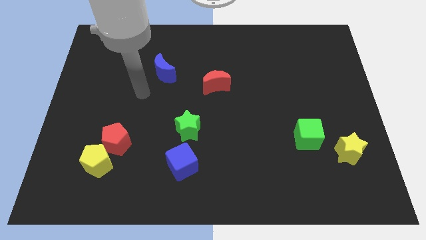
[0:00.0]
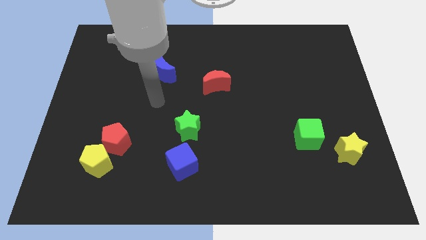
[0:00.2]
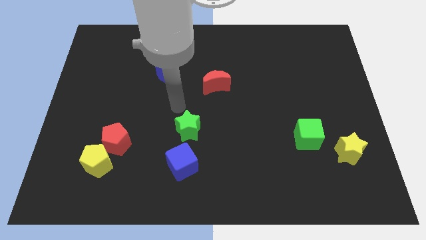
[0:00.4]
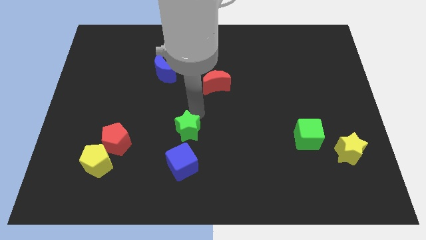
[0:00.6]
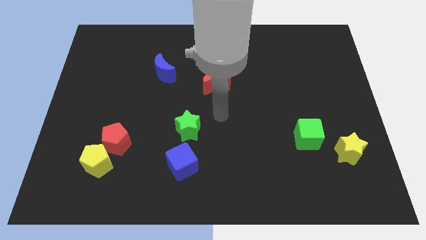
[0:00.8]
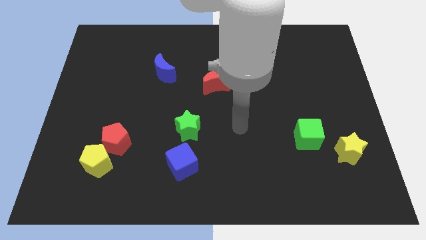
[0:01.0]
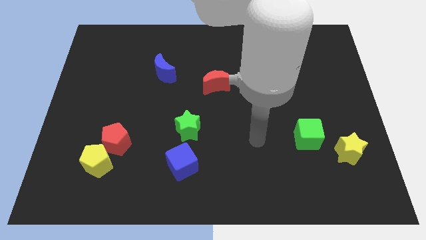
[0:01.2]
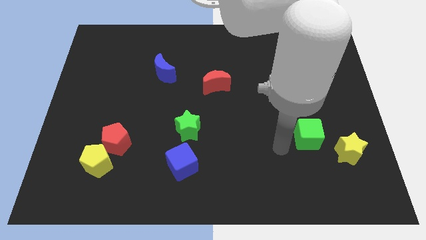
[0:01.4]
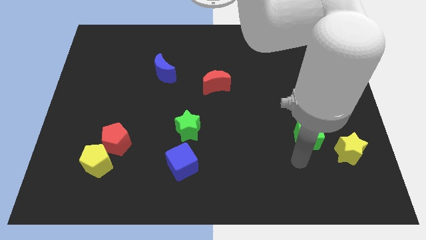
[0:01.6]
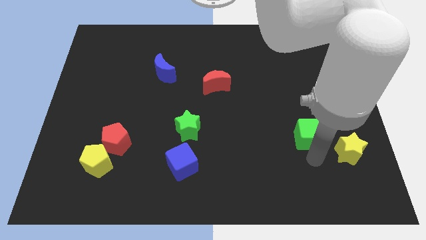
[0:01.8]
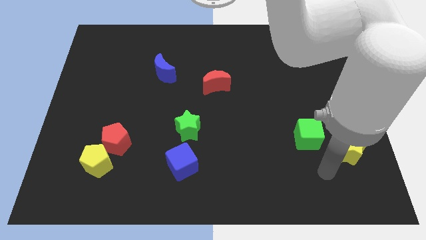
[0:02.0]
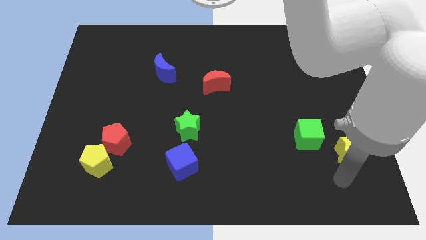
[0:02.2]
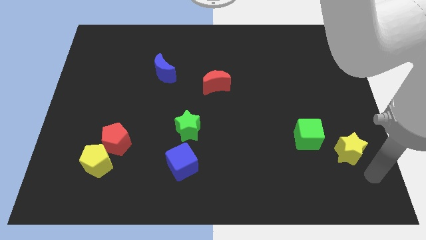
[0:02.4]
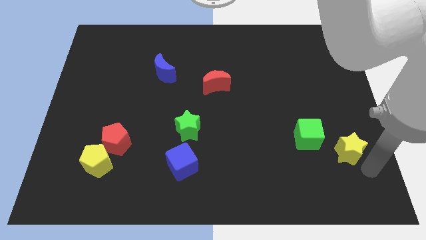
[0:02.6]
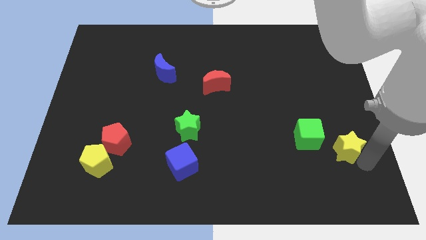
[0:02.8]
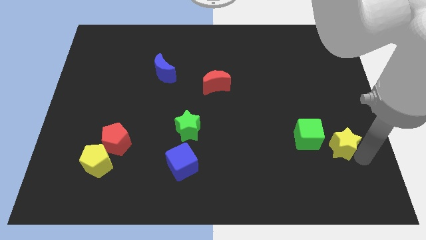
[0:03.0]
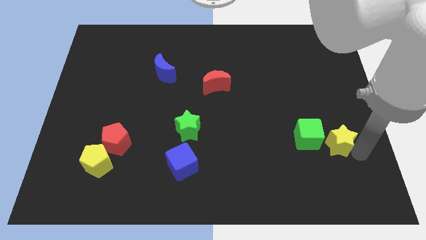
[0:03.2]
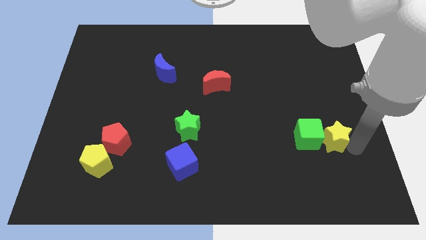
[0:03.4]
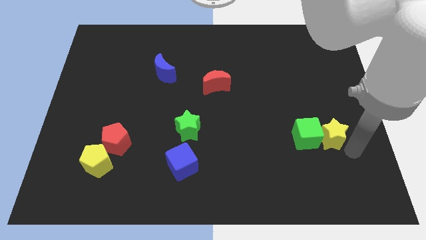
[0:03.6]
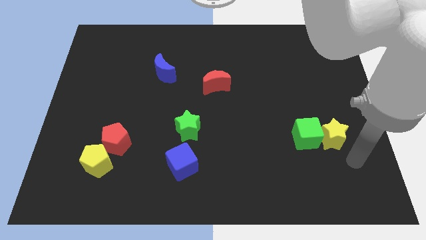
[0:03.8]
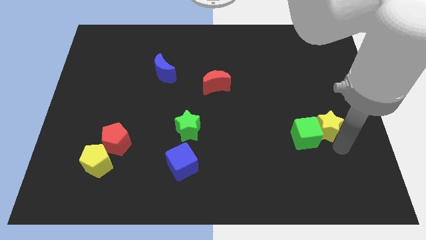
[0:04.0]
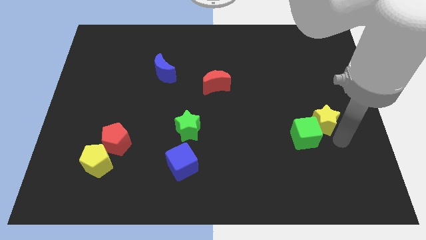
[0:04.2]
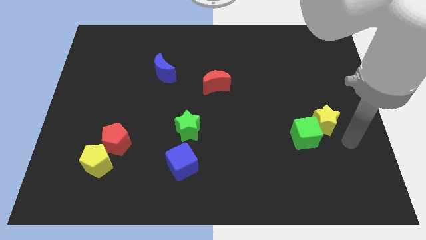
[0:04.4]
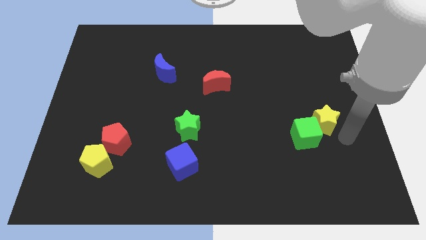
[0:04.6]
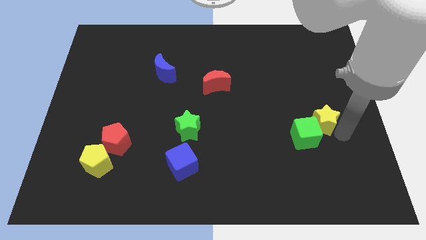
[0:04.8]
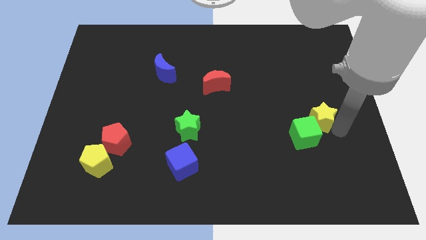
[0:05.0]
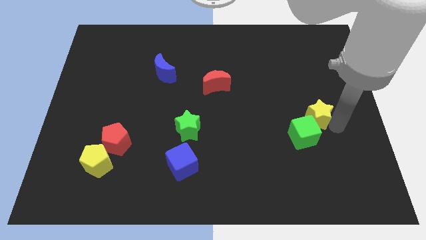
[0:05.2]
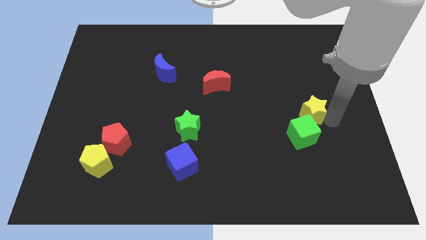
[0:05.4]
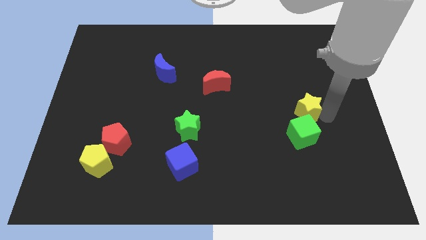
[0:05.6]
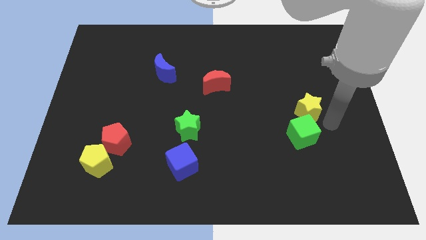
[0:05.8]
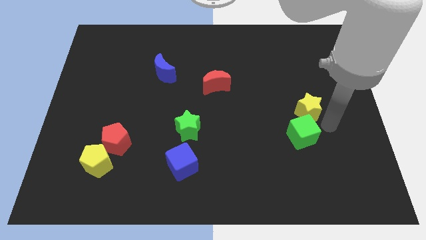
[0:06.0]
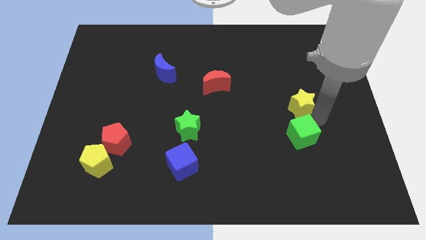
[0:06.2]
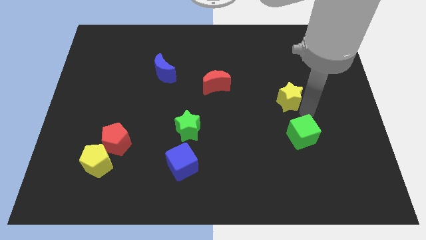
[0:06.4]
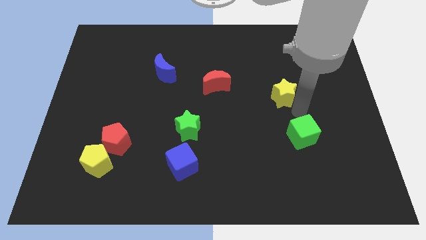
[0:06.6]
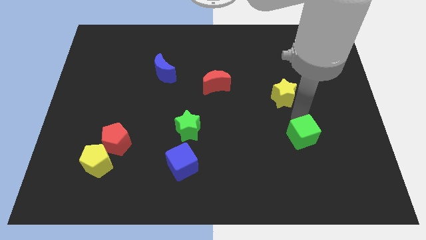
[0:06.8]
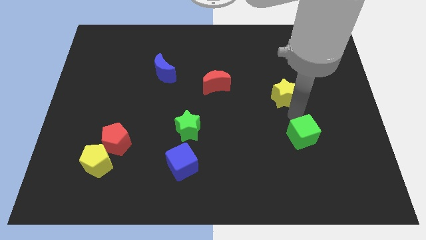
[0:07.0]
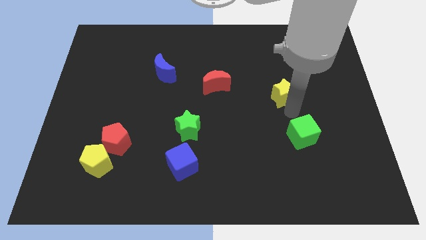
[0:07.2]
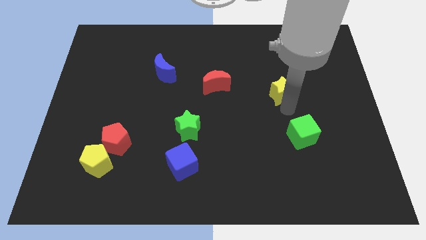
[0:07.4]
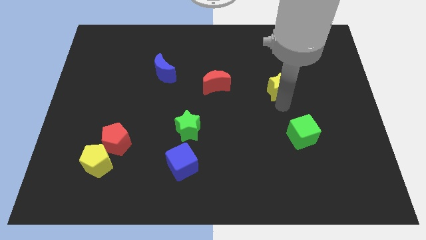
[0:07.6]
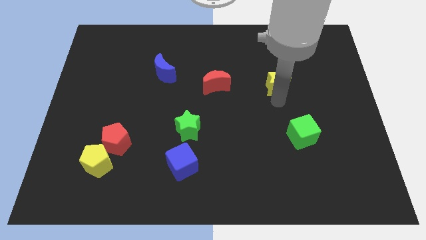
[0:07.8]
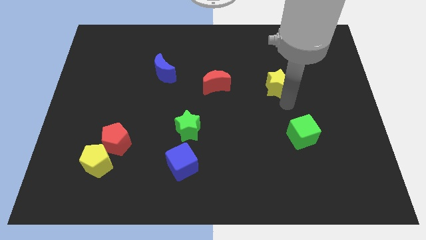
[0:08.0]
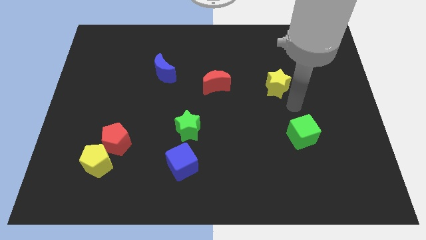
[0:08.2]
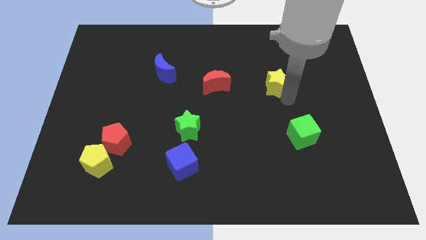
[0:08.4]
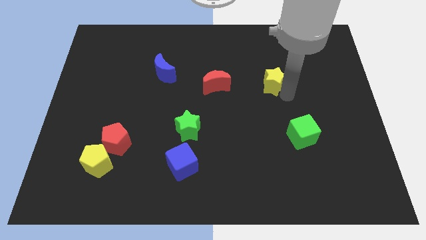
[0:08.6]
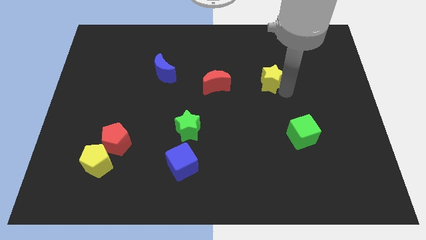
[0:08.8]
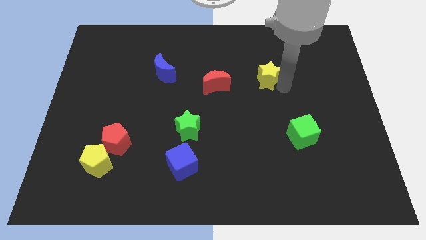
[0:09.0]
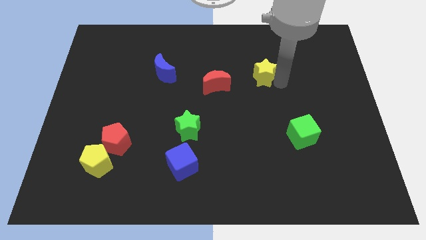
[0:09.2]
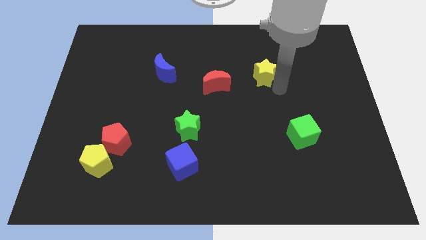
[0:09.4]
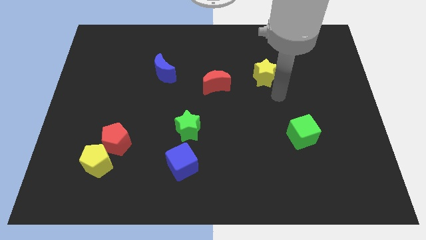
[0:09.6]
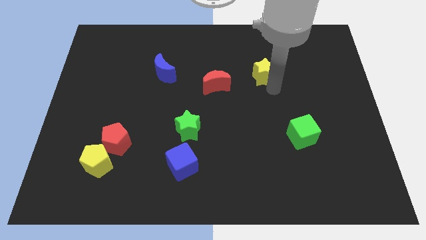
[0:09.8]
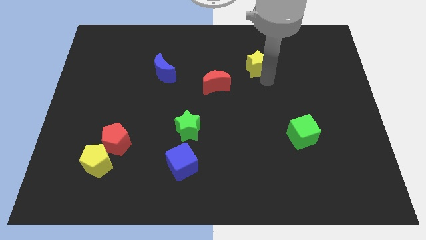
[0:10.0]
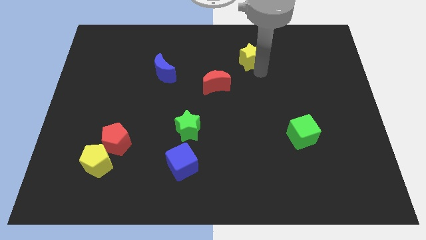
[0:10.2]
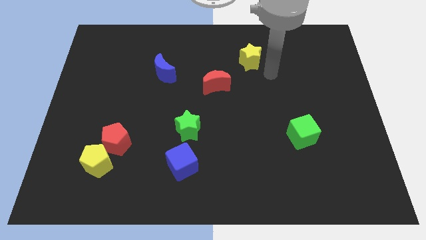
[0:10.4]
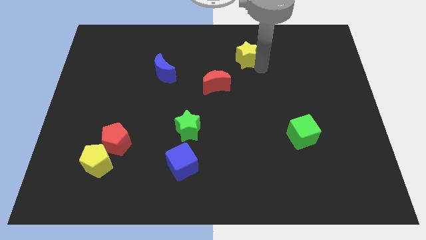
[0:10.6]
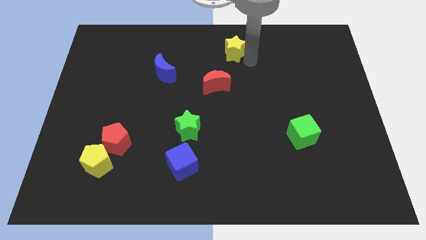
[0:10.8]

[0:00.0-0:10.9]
move the yellow star to the top side

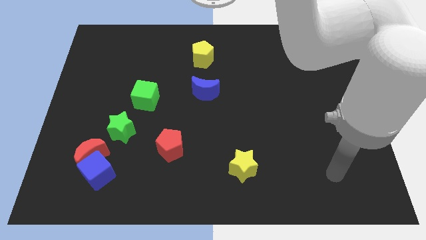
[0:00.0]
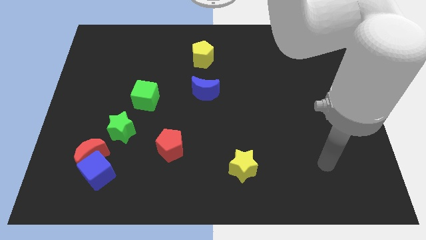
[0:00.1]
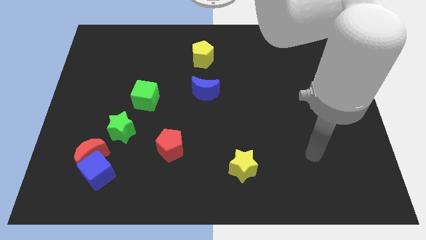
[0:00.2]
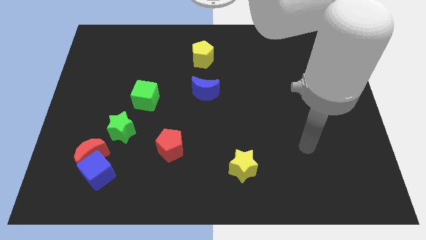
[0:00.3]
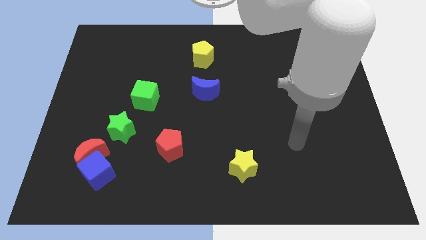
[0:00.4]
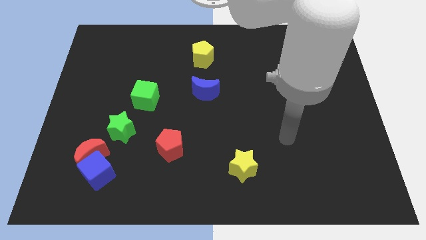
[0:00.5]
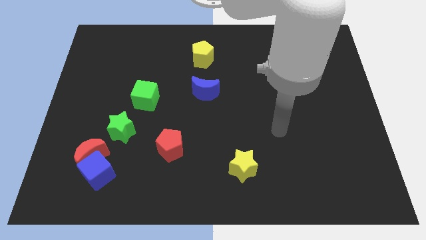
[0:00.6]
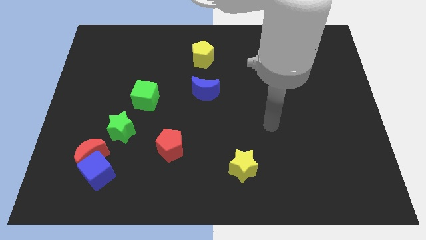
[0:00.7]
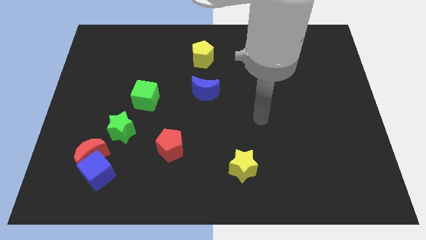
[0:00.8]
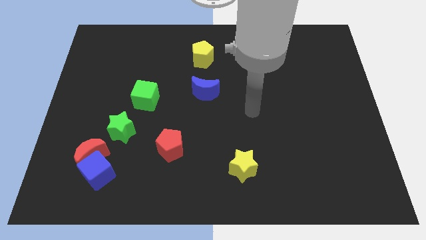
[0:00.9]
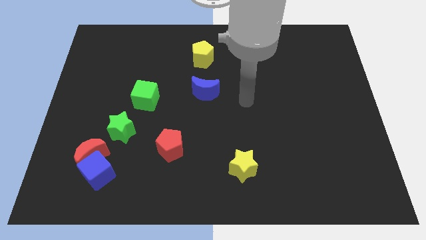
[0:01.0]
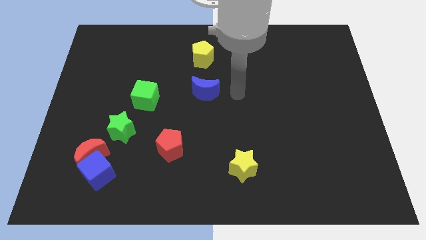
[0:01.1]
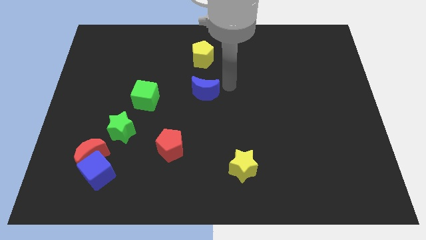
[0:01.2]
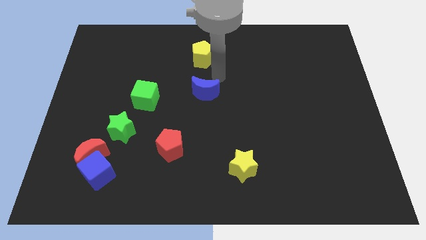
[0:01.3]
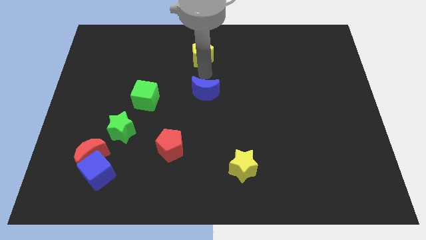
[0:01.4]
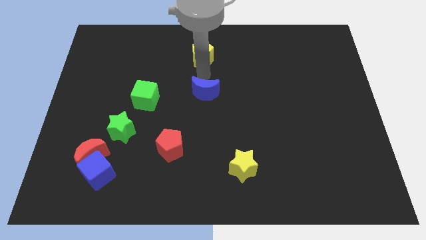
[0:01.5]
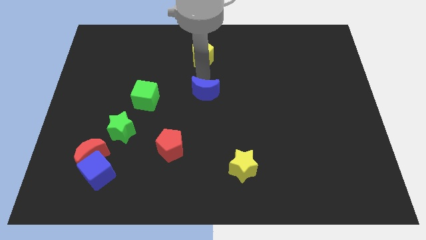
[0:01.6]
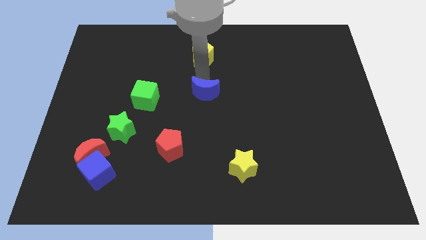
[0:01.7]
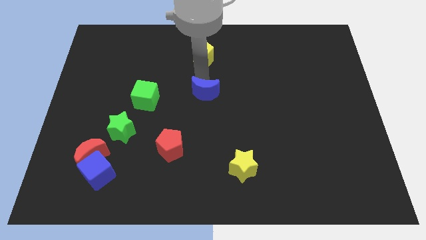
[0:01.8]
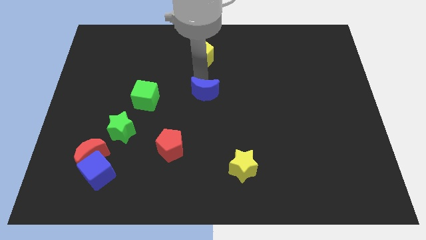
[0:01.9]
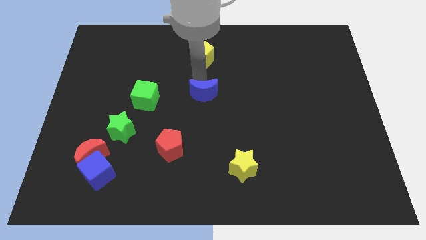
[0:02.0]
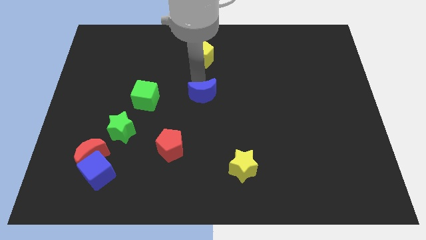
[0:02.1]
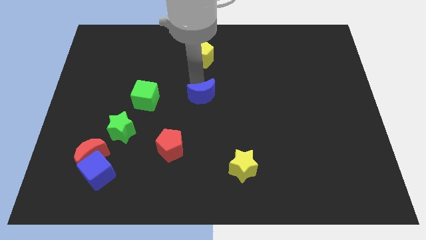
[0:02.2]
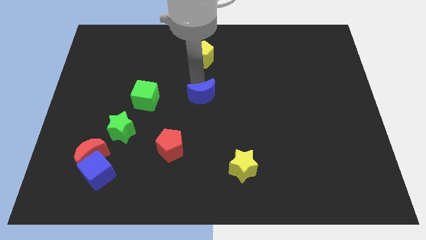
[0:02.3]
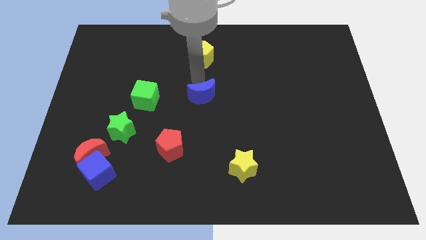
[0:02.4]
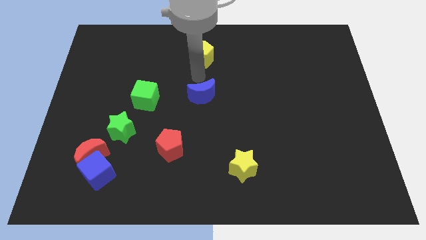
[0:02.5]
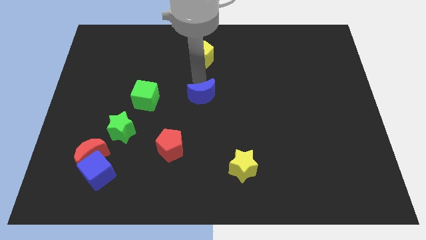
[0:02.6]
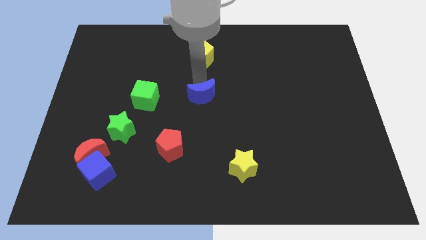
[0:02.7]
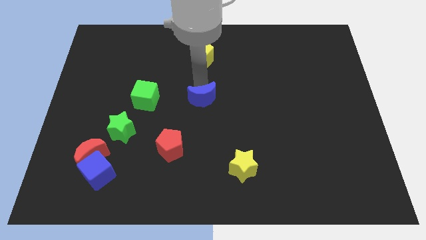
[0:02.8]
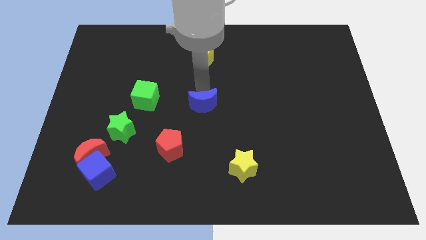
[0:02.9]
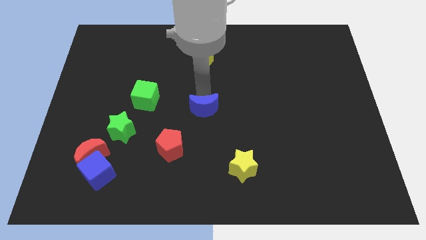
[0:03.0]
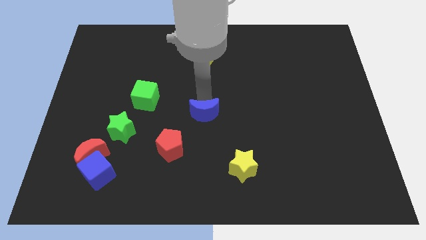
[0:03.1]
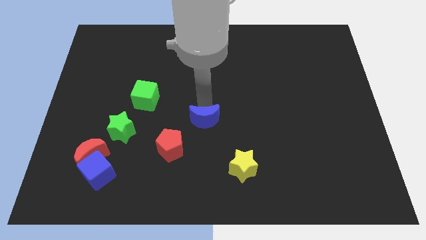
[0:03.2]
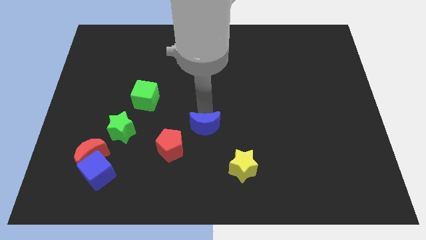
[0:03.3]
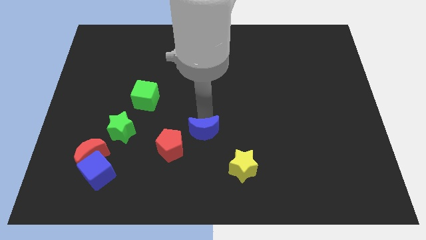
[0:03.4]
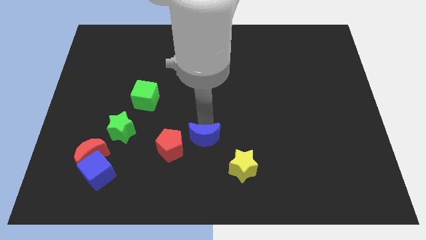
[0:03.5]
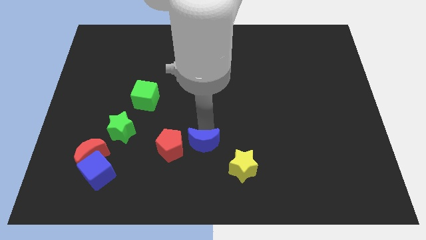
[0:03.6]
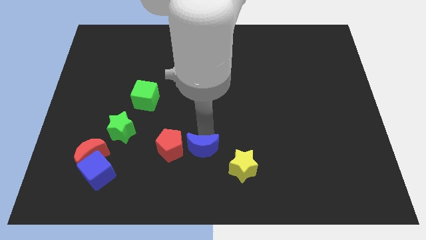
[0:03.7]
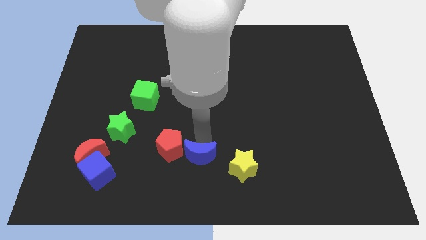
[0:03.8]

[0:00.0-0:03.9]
slide the blue moon to the bottom side
